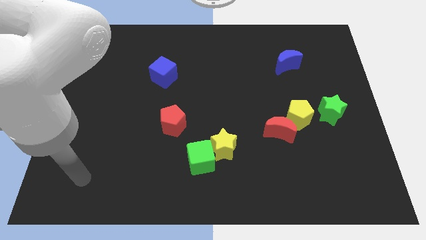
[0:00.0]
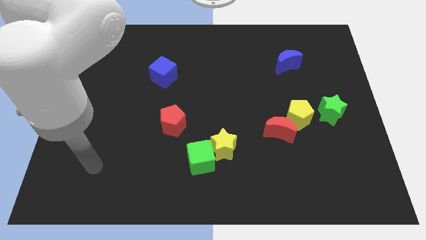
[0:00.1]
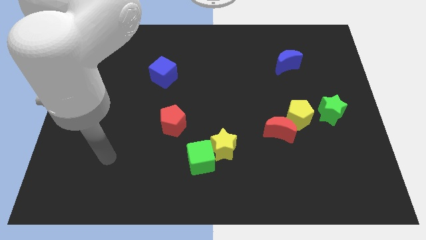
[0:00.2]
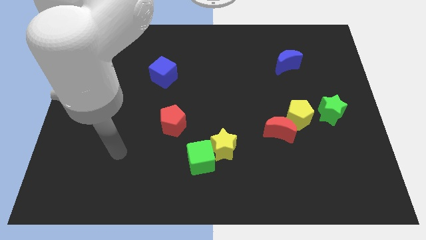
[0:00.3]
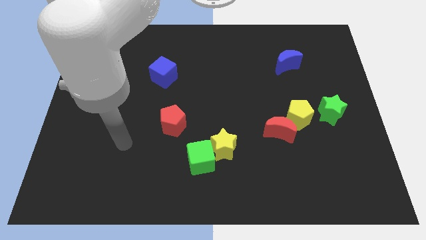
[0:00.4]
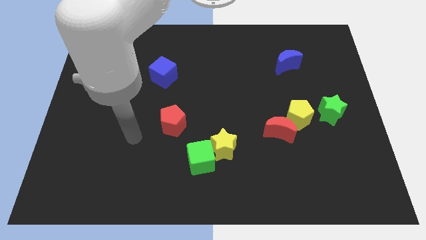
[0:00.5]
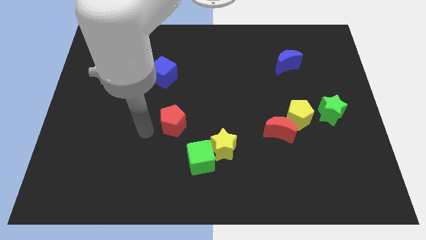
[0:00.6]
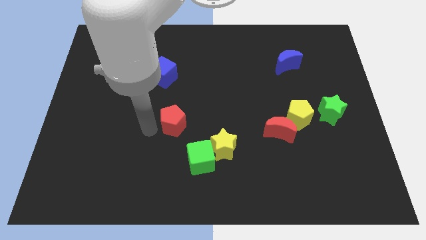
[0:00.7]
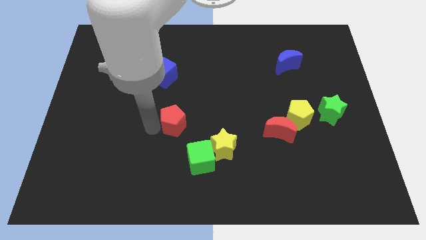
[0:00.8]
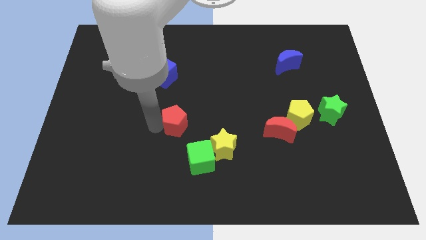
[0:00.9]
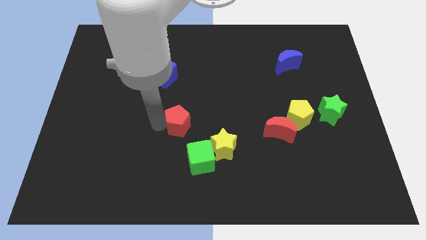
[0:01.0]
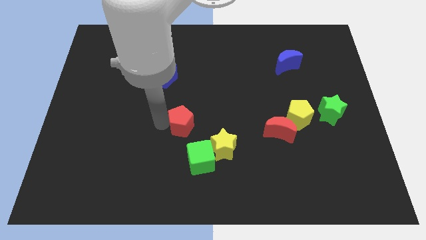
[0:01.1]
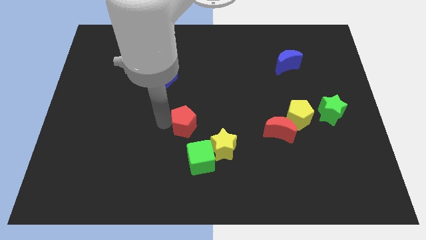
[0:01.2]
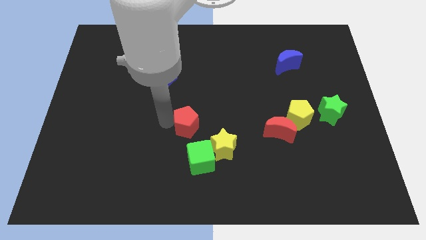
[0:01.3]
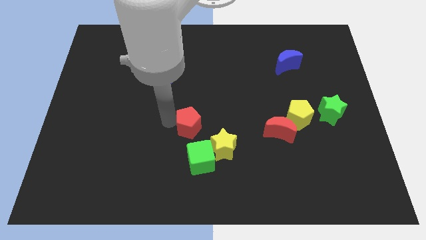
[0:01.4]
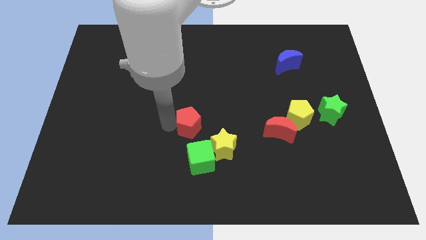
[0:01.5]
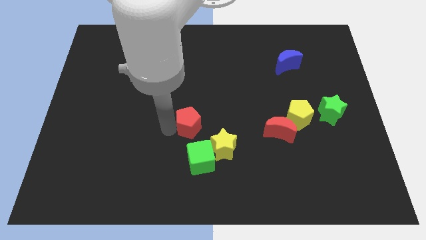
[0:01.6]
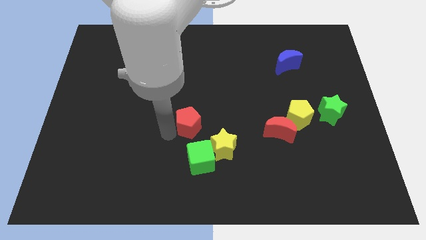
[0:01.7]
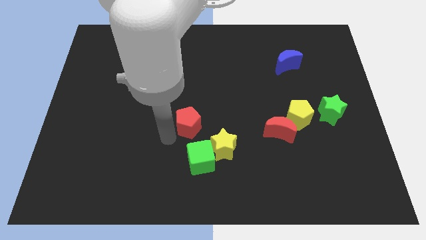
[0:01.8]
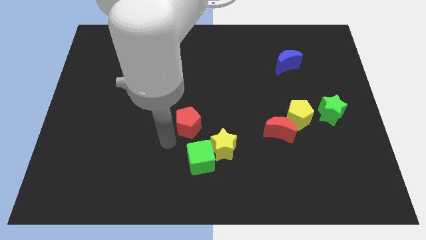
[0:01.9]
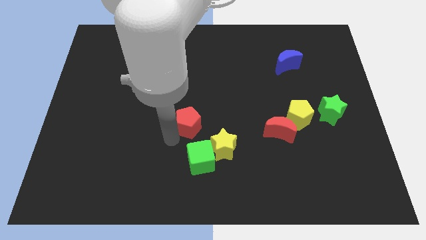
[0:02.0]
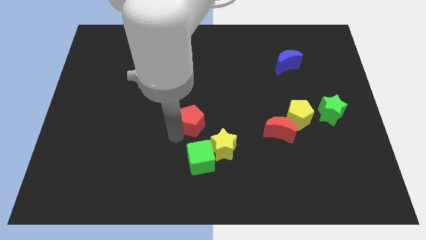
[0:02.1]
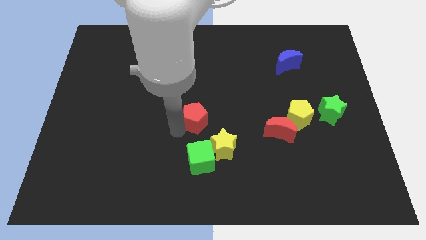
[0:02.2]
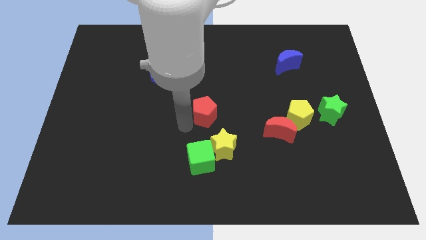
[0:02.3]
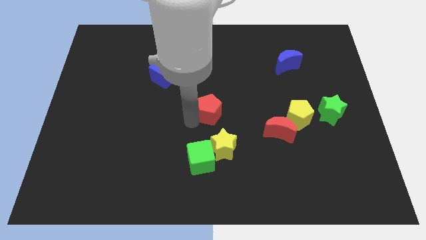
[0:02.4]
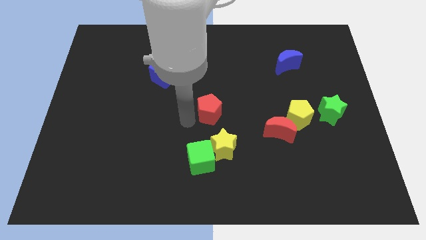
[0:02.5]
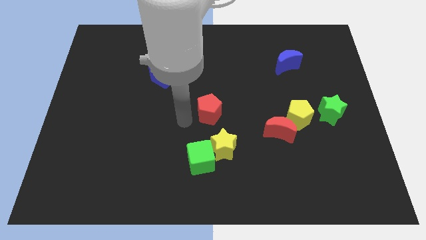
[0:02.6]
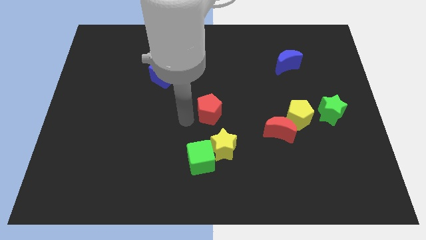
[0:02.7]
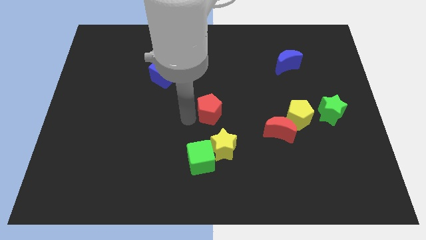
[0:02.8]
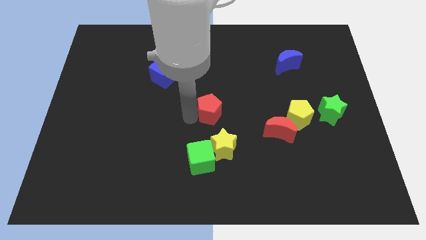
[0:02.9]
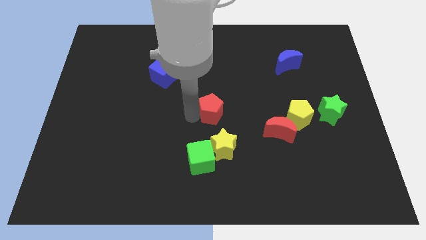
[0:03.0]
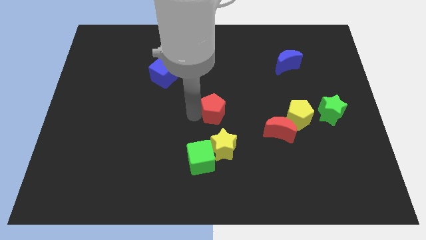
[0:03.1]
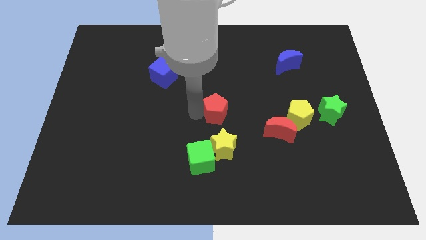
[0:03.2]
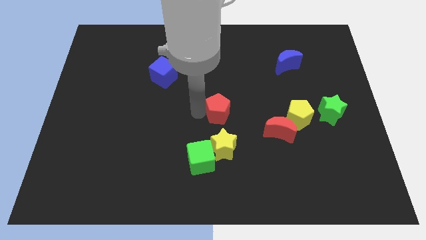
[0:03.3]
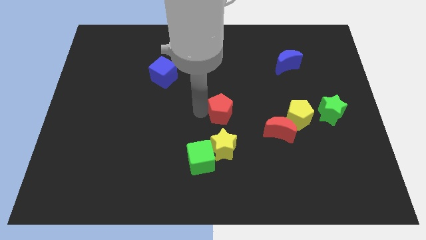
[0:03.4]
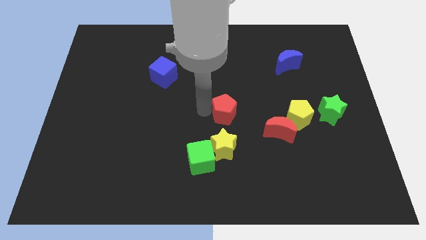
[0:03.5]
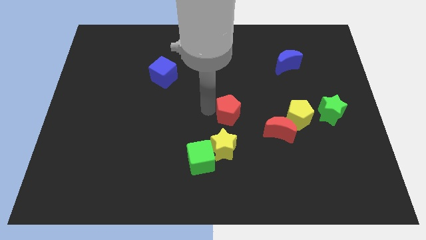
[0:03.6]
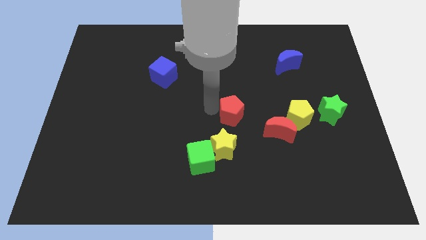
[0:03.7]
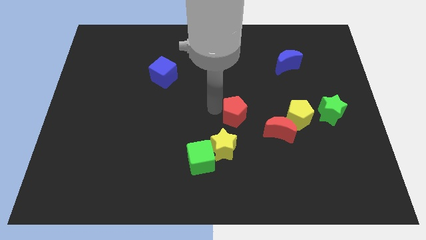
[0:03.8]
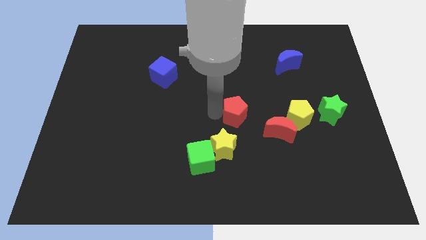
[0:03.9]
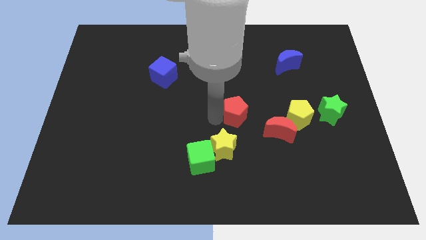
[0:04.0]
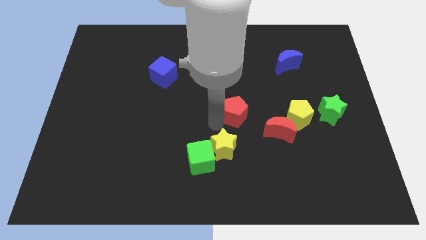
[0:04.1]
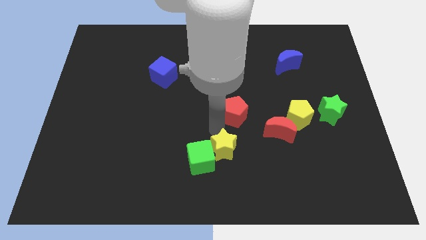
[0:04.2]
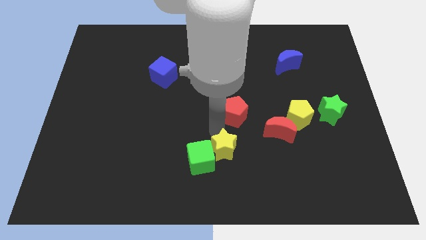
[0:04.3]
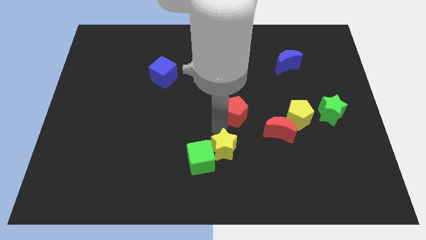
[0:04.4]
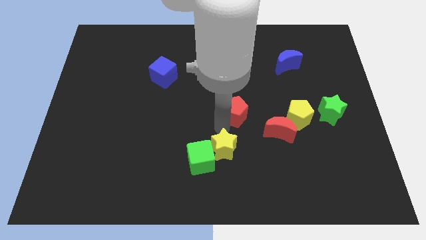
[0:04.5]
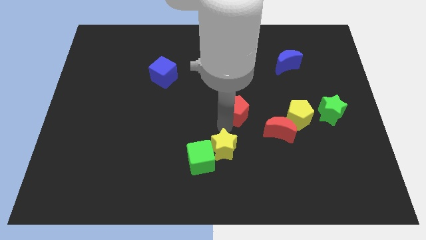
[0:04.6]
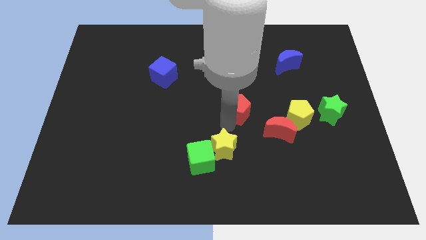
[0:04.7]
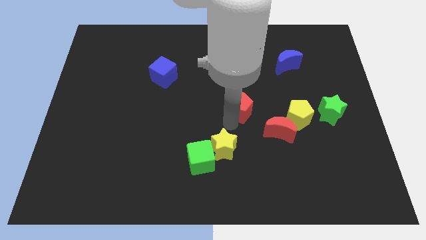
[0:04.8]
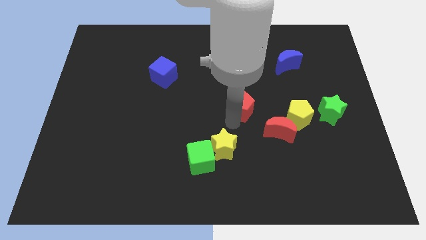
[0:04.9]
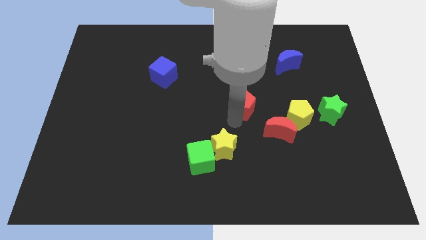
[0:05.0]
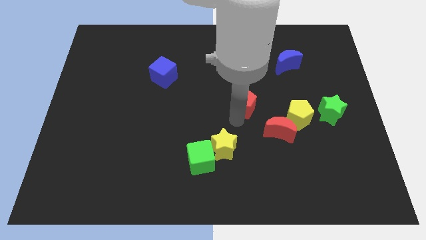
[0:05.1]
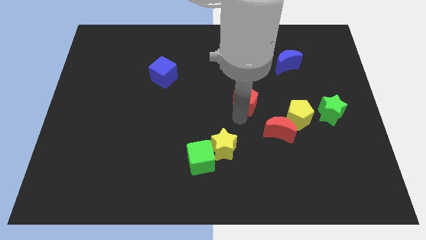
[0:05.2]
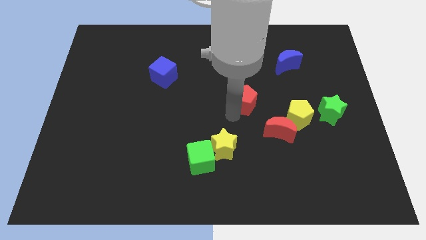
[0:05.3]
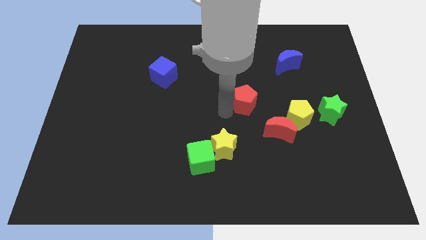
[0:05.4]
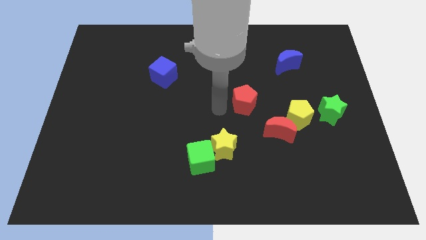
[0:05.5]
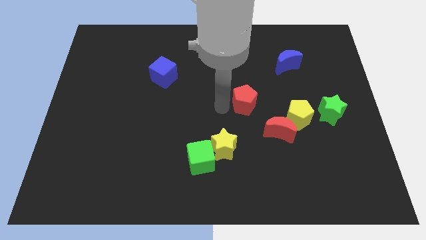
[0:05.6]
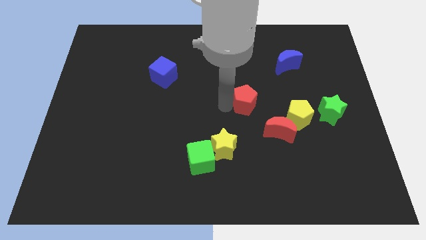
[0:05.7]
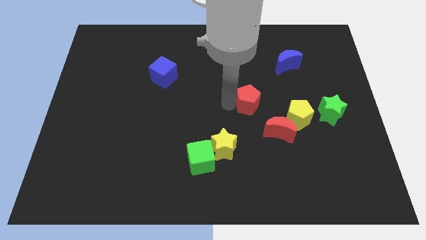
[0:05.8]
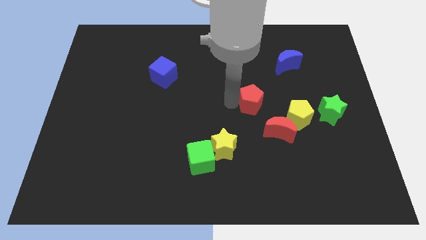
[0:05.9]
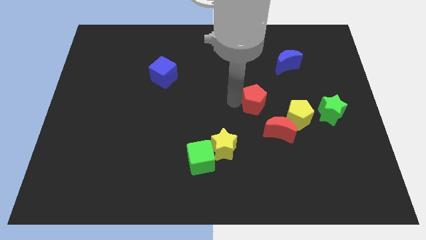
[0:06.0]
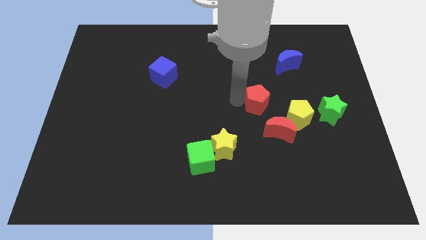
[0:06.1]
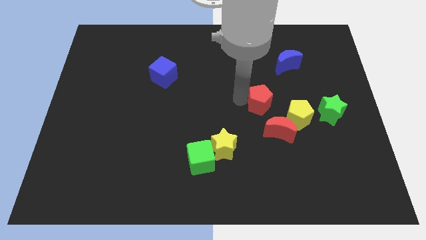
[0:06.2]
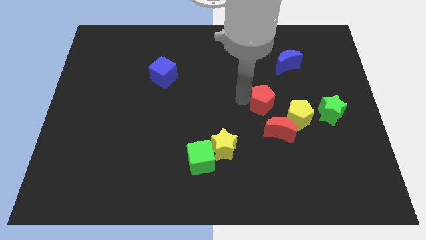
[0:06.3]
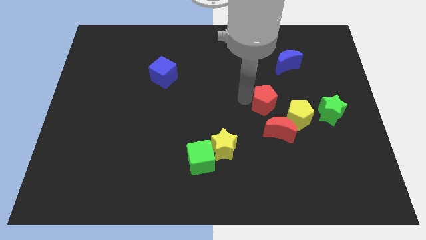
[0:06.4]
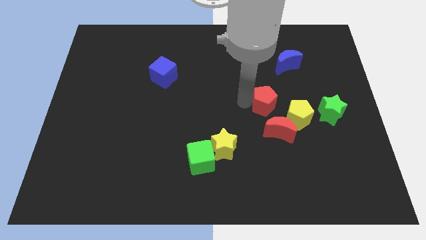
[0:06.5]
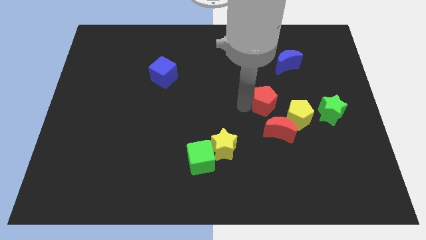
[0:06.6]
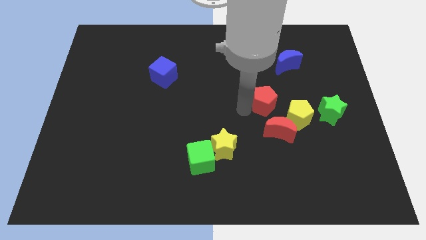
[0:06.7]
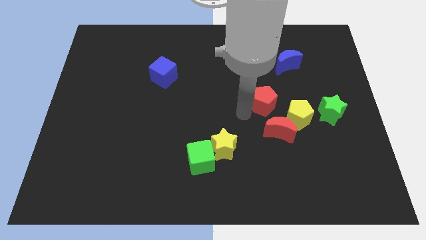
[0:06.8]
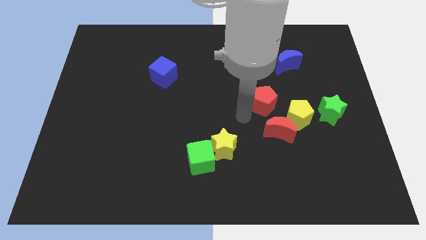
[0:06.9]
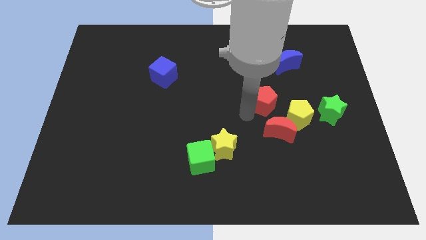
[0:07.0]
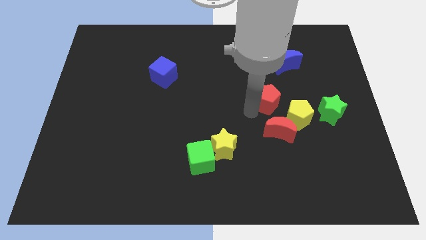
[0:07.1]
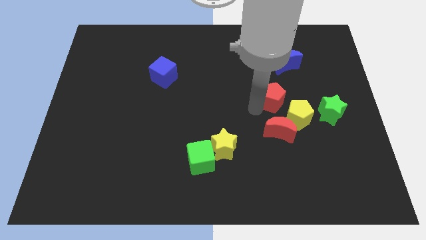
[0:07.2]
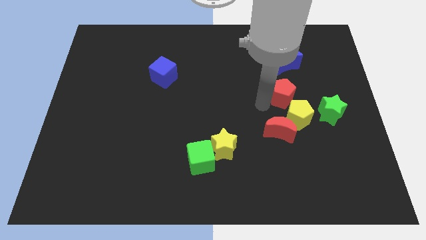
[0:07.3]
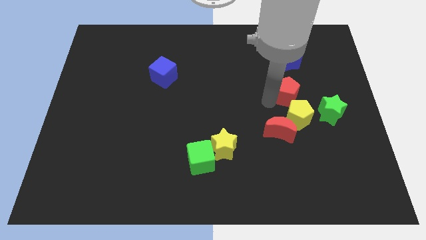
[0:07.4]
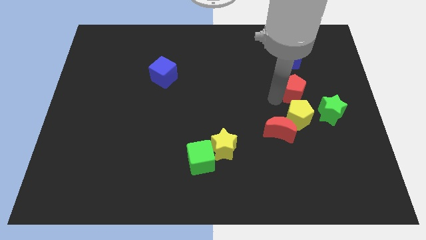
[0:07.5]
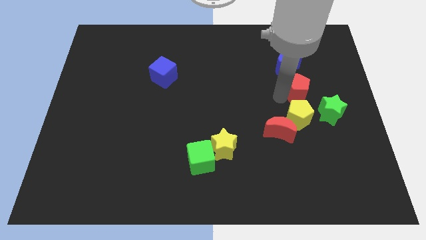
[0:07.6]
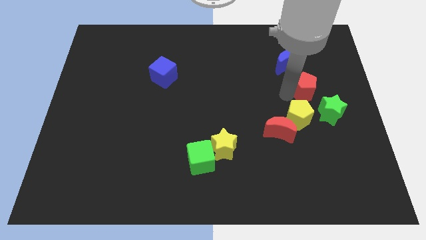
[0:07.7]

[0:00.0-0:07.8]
put the red pentagon to the top of the green star

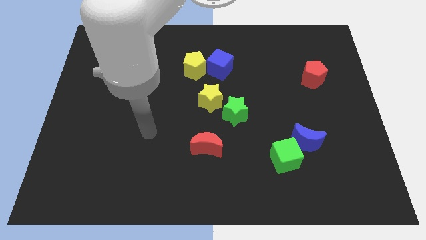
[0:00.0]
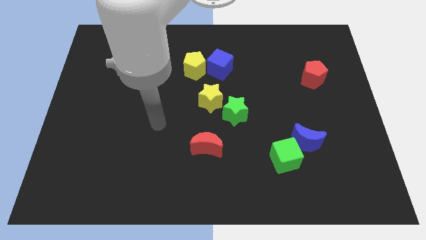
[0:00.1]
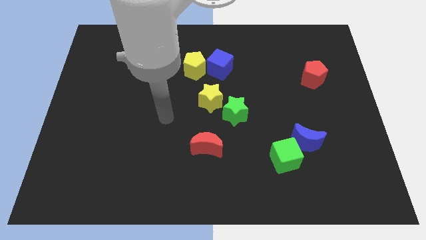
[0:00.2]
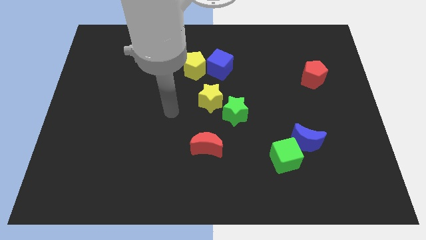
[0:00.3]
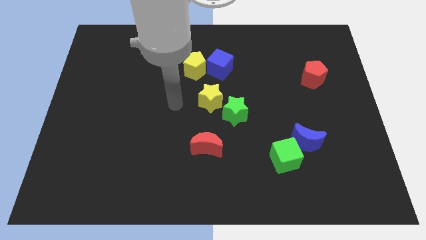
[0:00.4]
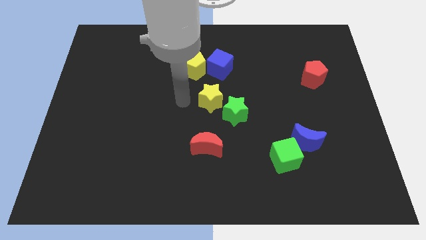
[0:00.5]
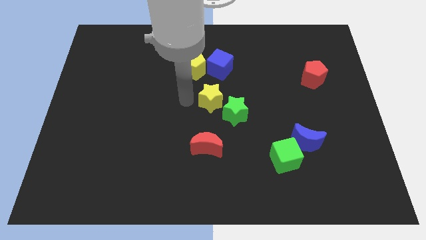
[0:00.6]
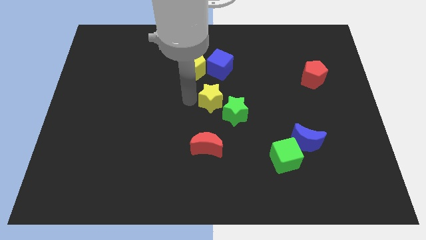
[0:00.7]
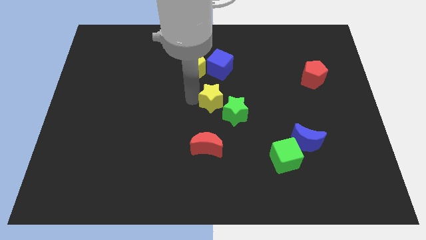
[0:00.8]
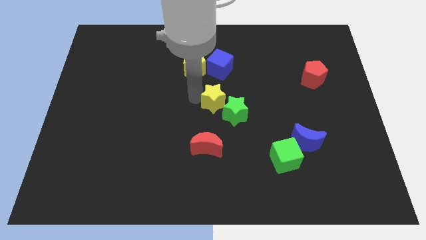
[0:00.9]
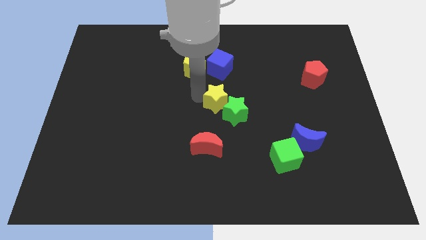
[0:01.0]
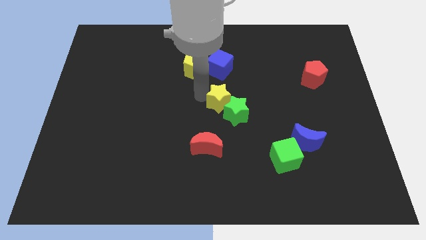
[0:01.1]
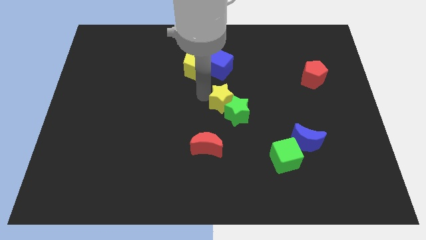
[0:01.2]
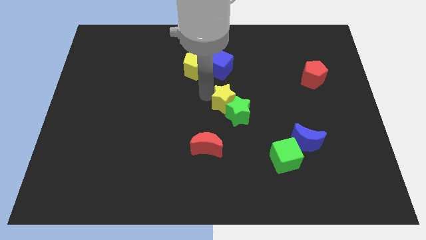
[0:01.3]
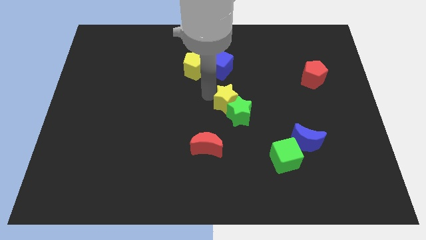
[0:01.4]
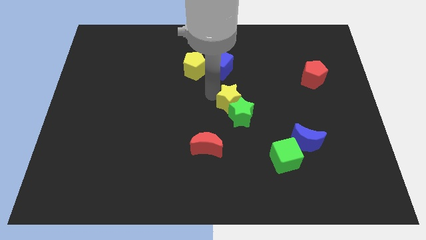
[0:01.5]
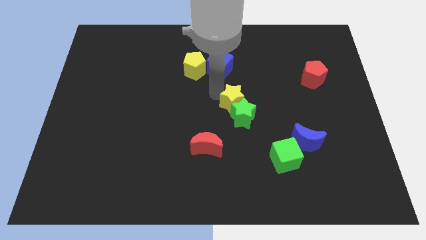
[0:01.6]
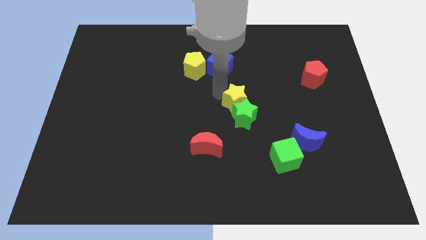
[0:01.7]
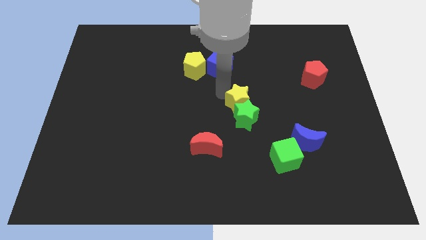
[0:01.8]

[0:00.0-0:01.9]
move the yellow star diagonally up and to the right of the green star
